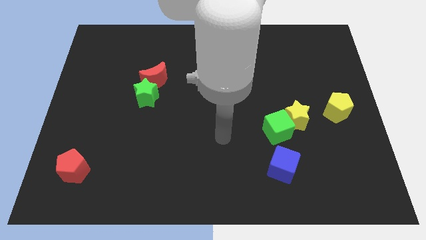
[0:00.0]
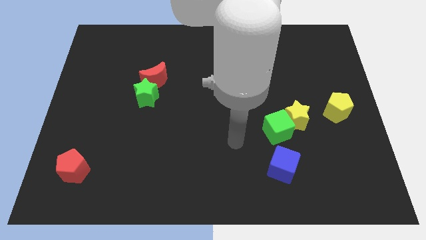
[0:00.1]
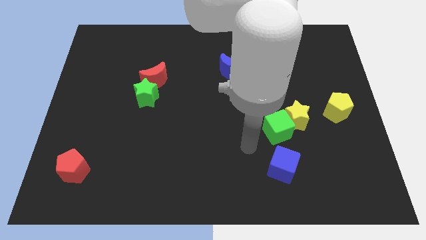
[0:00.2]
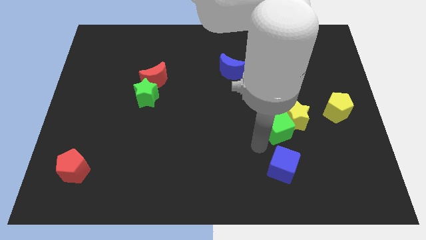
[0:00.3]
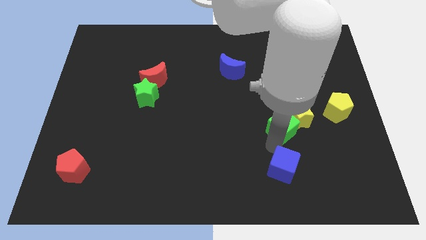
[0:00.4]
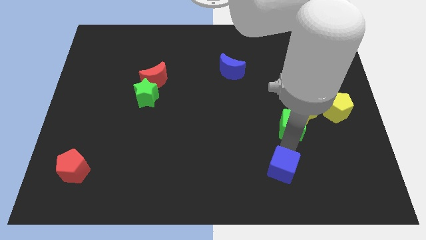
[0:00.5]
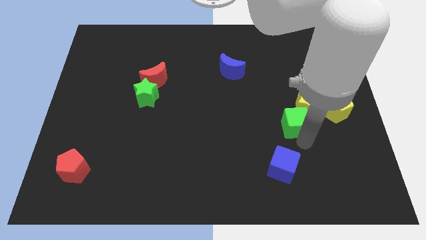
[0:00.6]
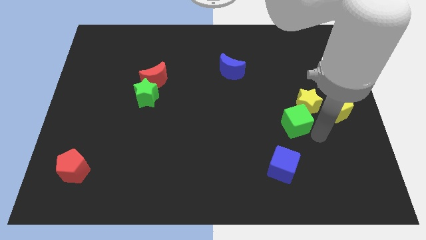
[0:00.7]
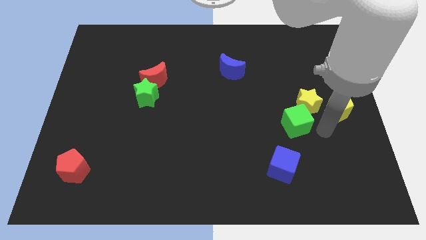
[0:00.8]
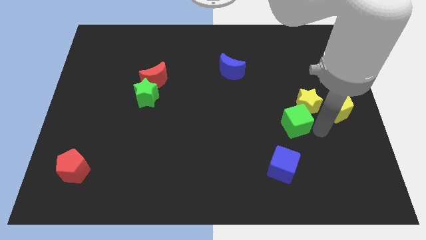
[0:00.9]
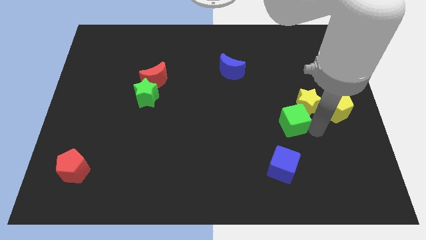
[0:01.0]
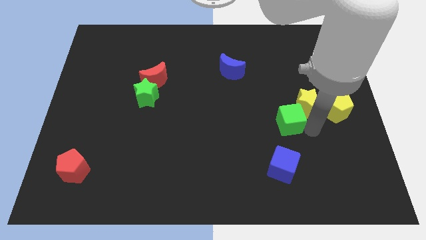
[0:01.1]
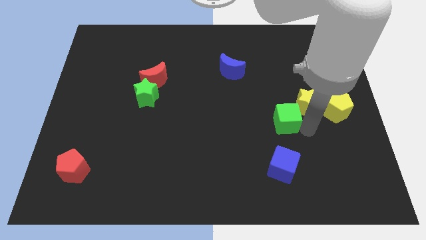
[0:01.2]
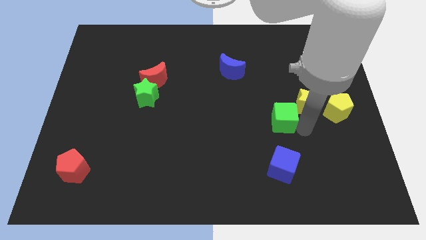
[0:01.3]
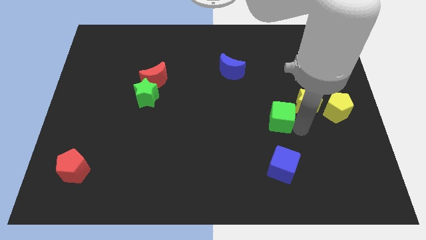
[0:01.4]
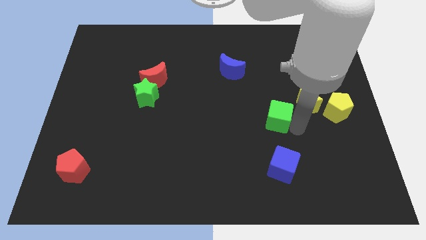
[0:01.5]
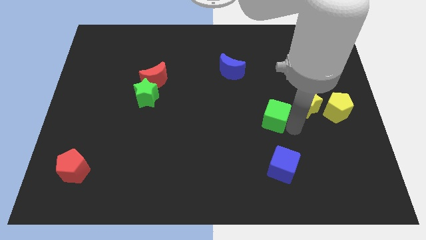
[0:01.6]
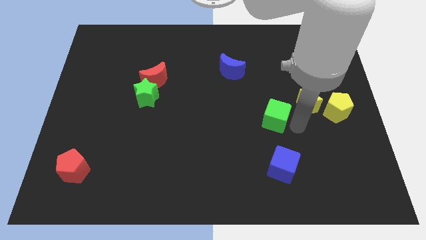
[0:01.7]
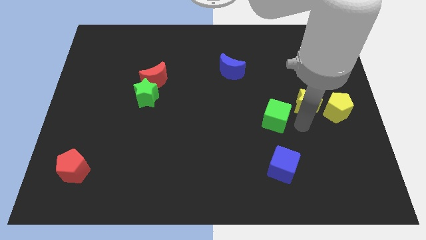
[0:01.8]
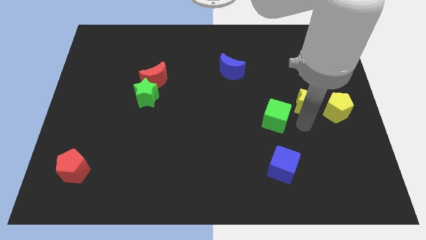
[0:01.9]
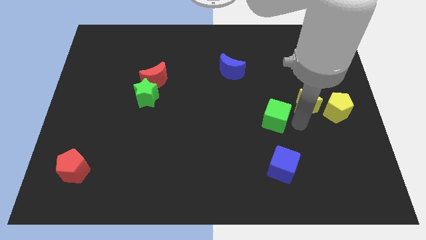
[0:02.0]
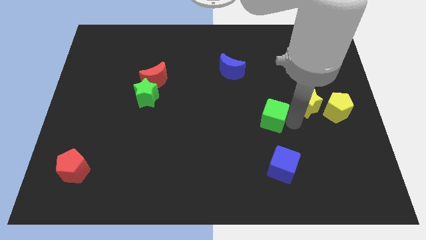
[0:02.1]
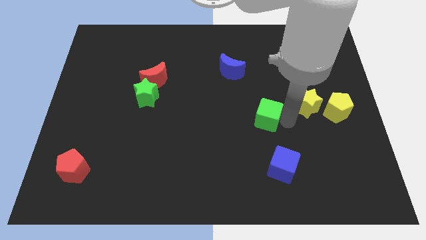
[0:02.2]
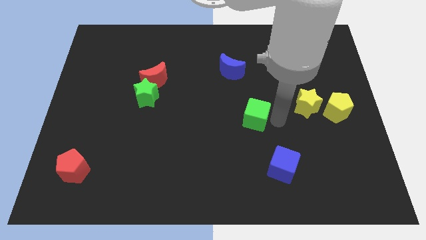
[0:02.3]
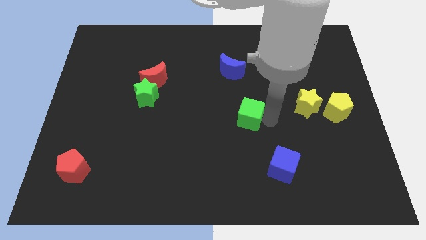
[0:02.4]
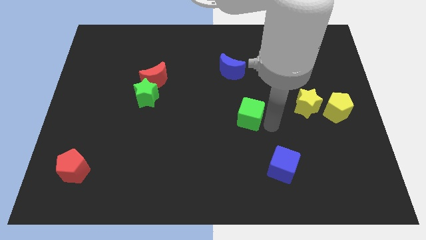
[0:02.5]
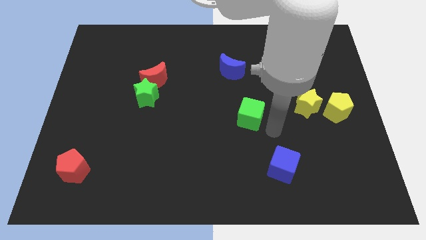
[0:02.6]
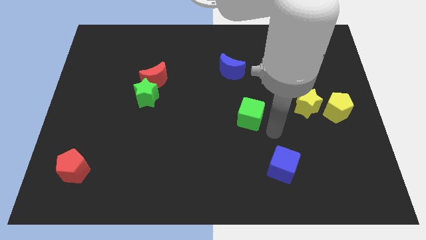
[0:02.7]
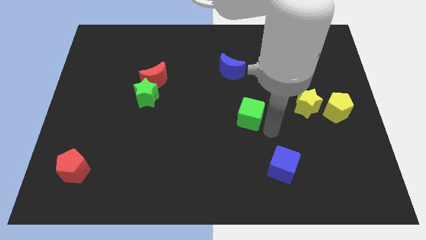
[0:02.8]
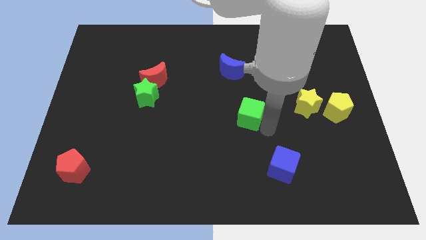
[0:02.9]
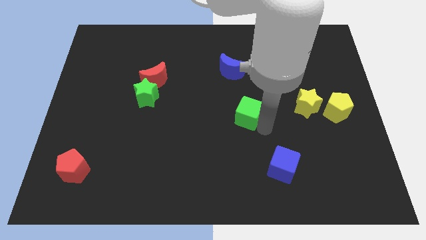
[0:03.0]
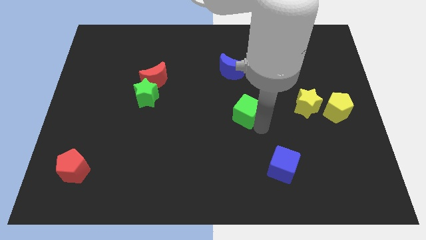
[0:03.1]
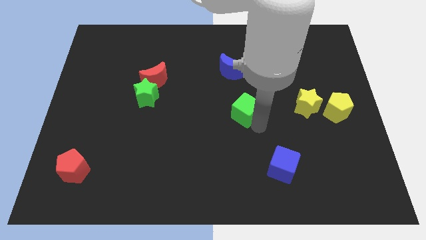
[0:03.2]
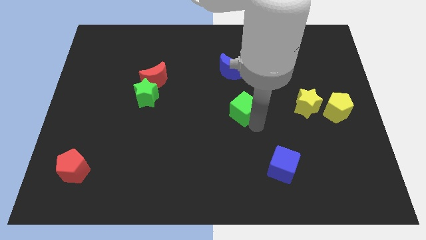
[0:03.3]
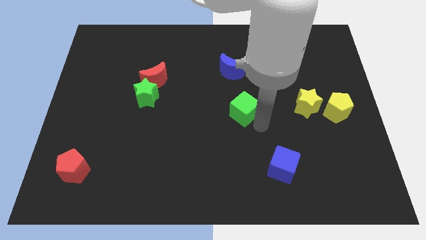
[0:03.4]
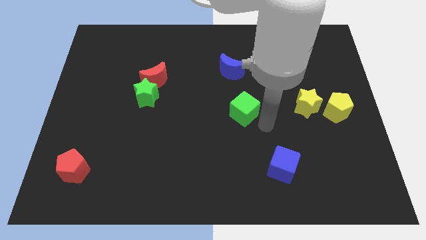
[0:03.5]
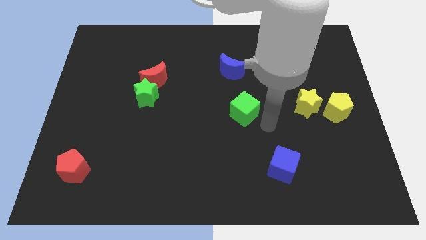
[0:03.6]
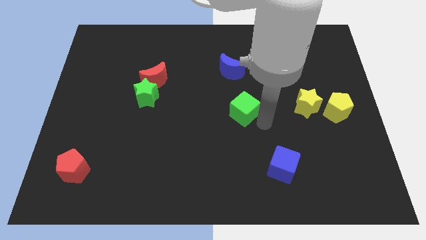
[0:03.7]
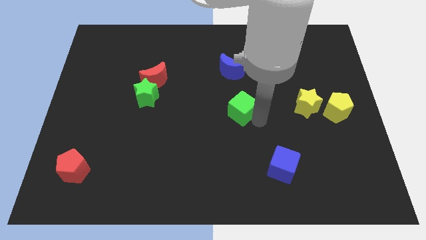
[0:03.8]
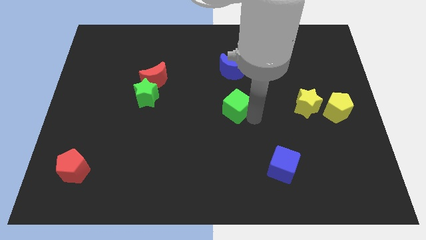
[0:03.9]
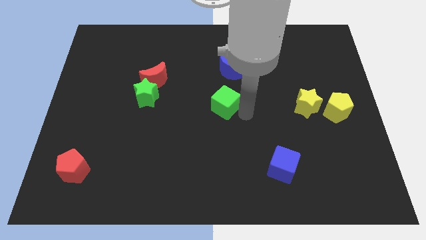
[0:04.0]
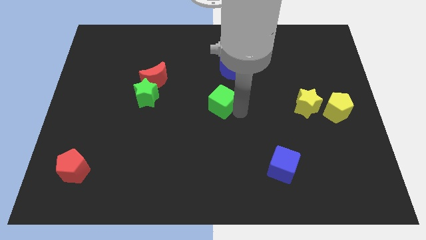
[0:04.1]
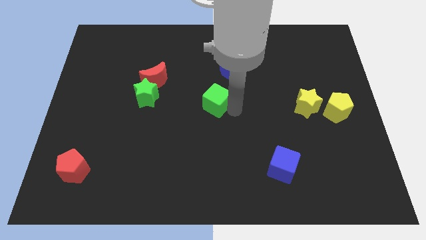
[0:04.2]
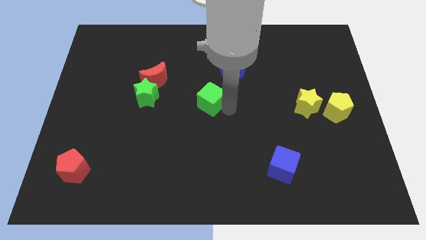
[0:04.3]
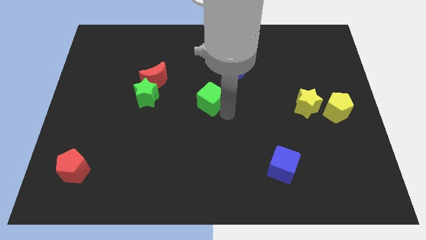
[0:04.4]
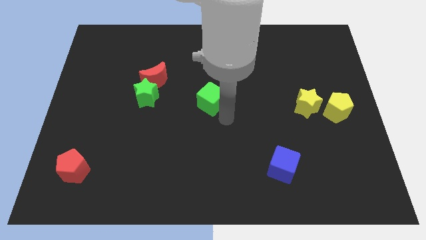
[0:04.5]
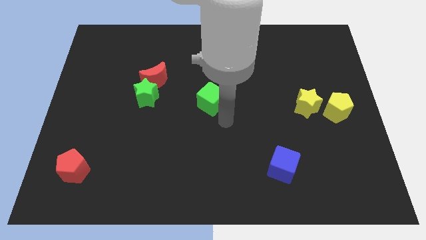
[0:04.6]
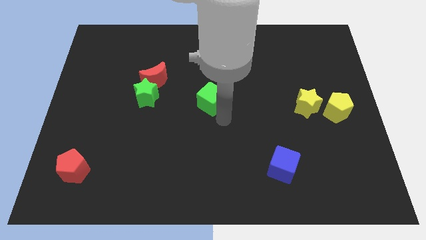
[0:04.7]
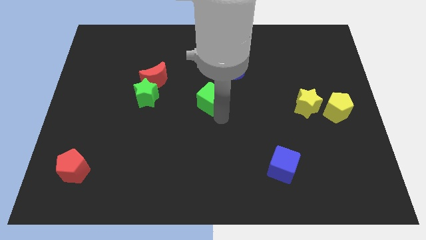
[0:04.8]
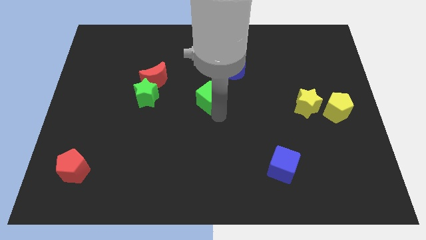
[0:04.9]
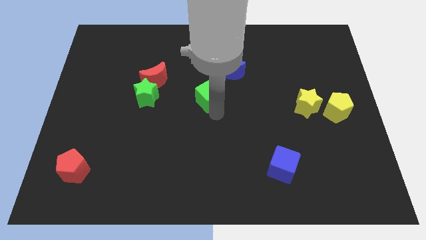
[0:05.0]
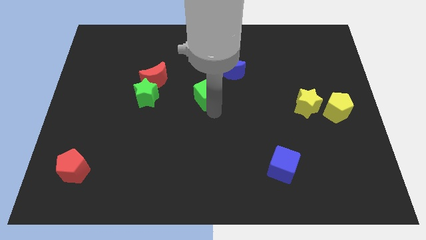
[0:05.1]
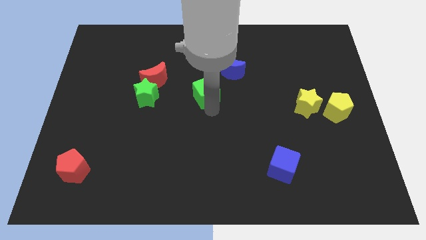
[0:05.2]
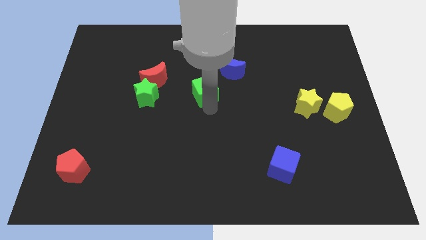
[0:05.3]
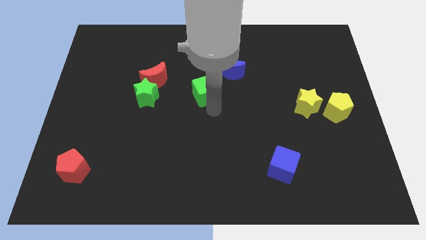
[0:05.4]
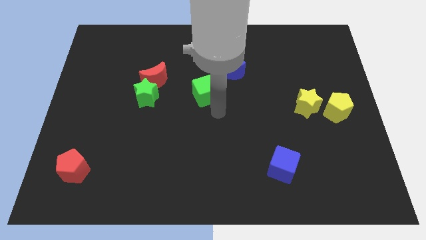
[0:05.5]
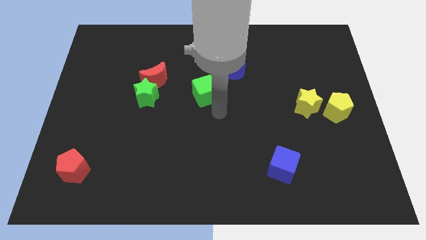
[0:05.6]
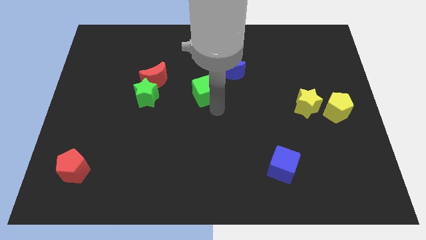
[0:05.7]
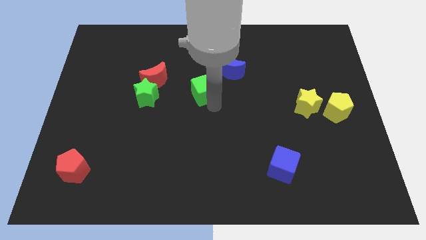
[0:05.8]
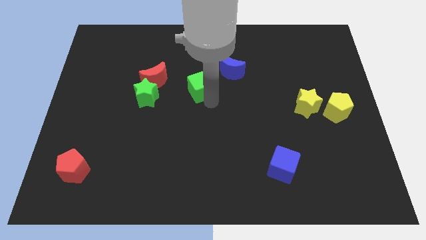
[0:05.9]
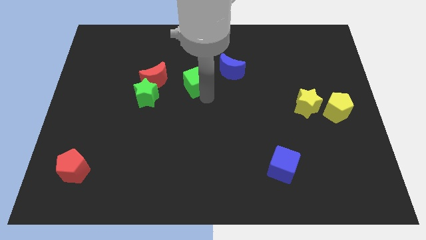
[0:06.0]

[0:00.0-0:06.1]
put the green cube left of the blue moon

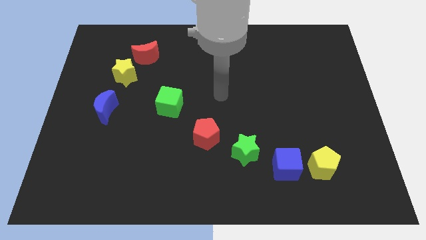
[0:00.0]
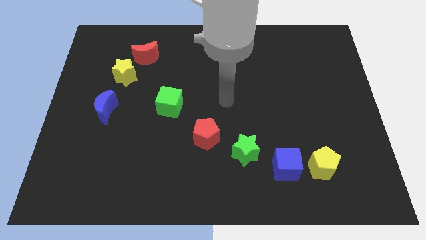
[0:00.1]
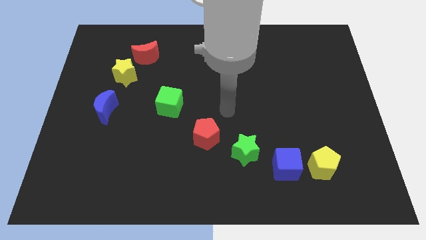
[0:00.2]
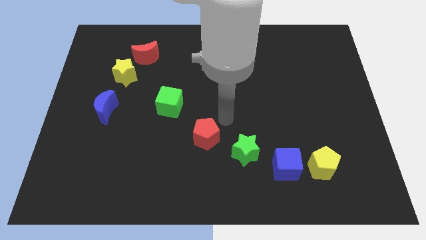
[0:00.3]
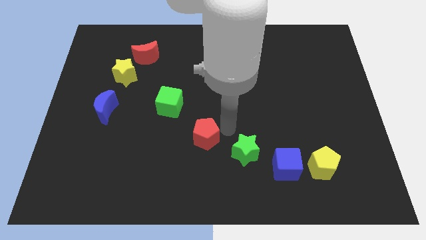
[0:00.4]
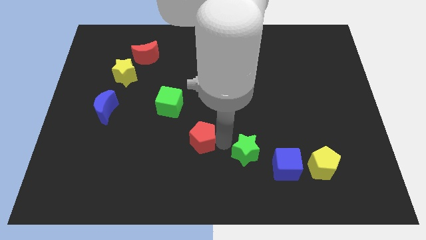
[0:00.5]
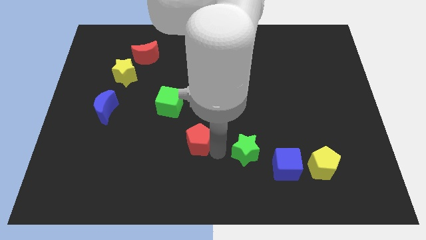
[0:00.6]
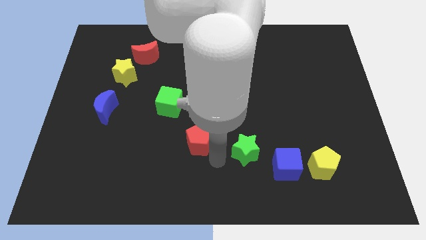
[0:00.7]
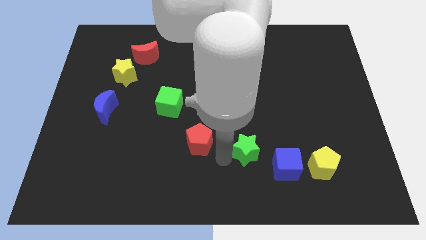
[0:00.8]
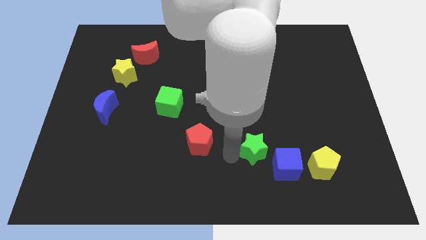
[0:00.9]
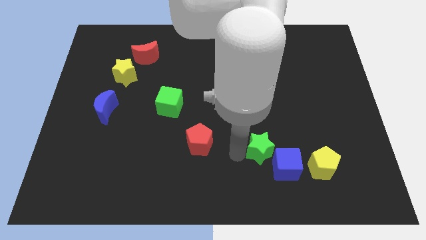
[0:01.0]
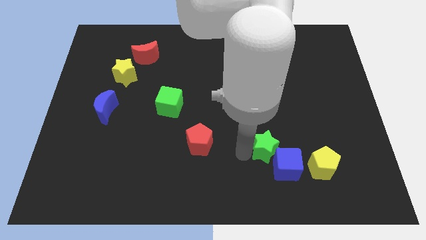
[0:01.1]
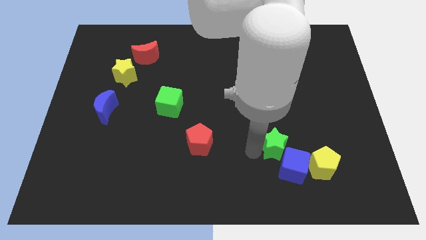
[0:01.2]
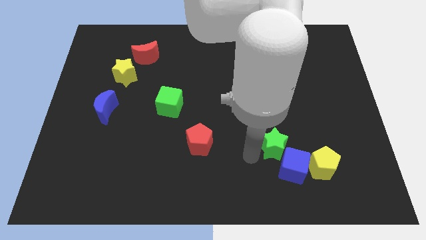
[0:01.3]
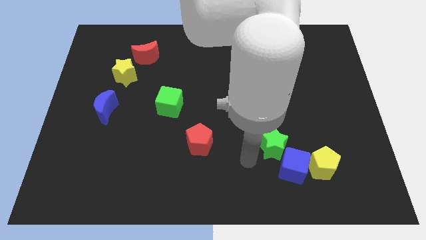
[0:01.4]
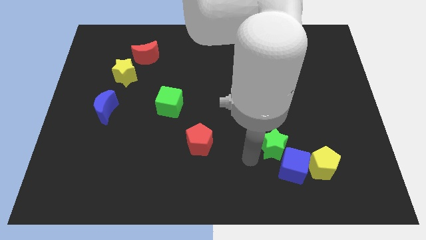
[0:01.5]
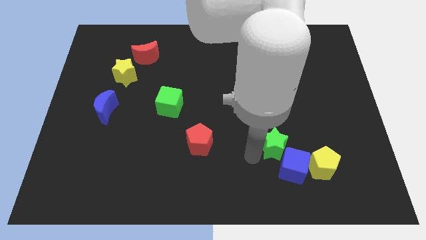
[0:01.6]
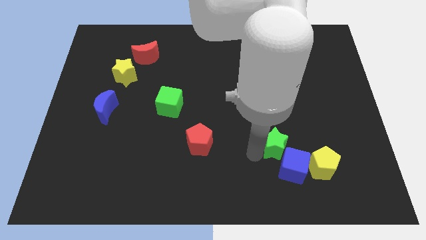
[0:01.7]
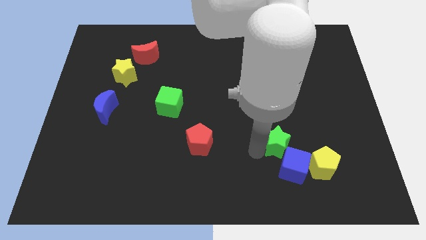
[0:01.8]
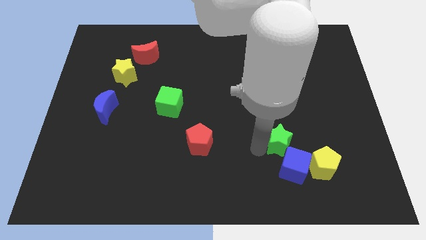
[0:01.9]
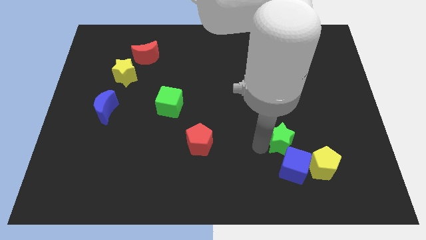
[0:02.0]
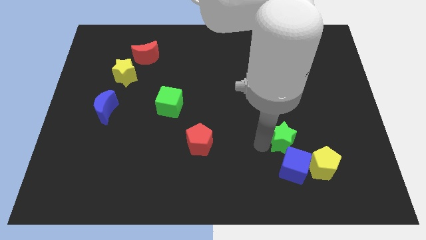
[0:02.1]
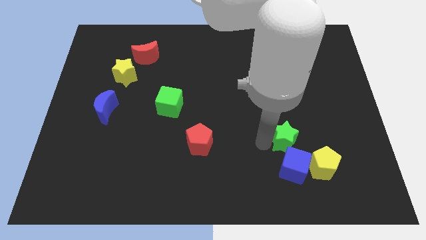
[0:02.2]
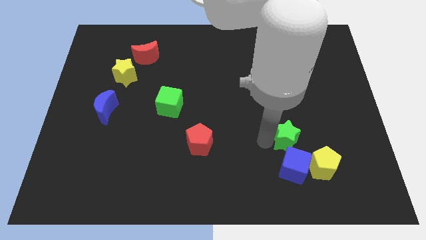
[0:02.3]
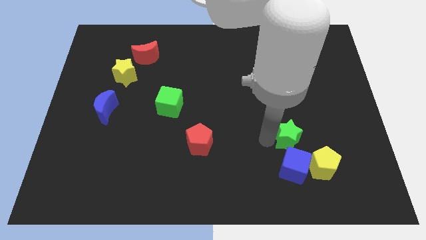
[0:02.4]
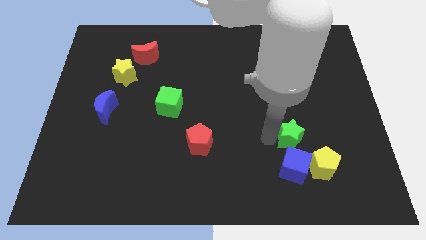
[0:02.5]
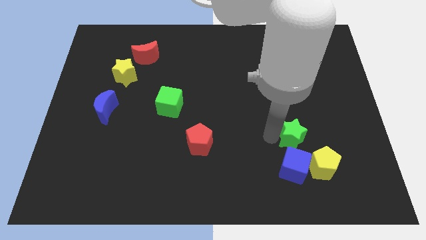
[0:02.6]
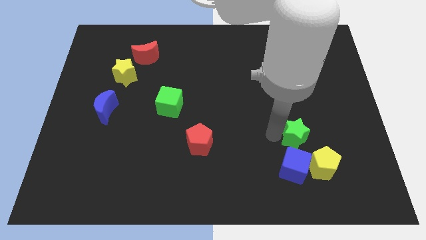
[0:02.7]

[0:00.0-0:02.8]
put the green star to the top side of the yellow pentagon
